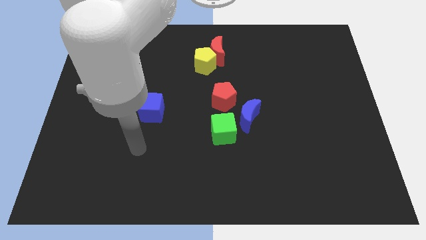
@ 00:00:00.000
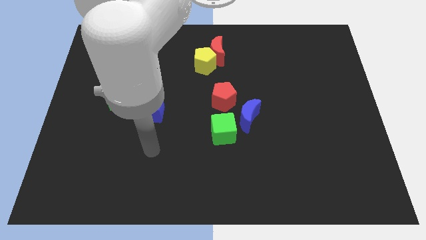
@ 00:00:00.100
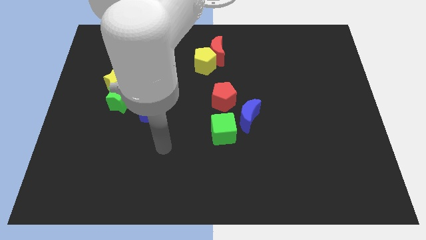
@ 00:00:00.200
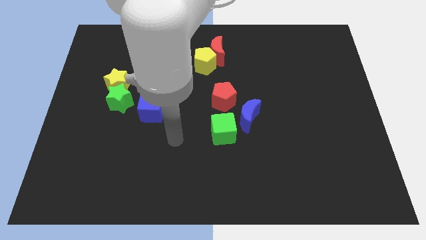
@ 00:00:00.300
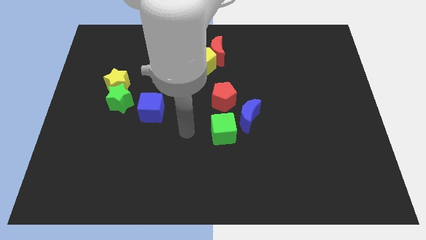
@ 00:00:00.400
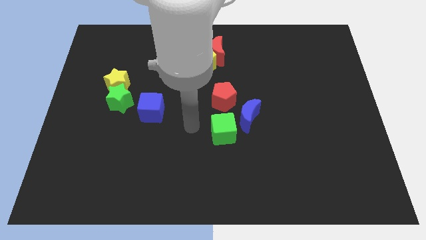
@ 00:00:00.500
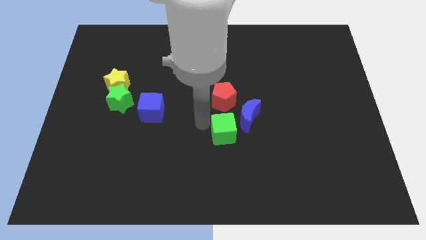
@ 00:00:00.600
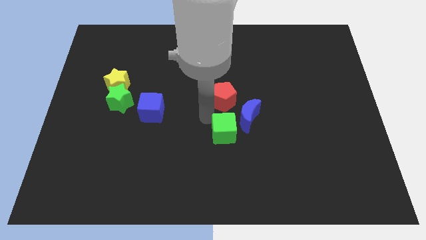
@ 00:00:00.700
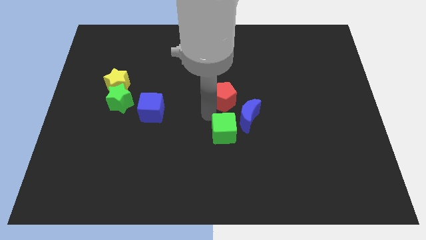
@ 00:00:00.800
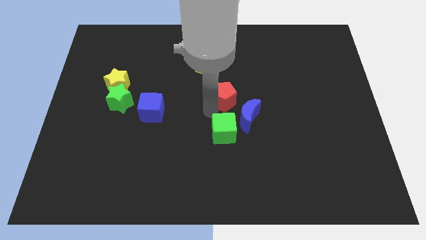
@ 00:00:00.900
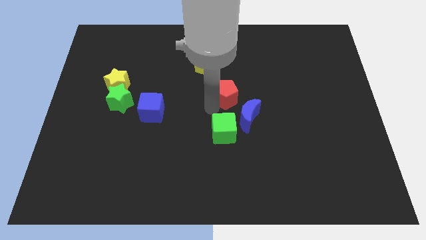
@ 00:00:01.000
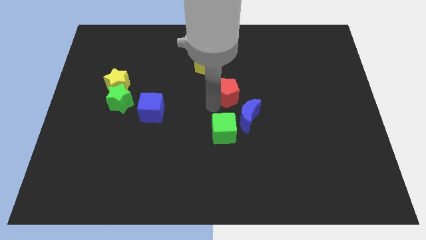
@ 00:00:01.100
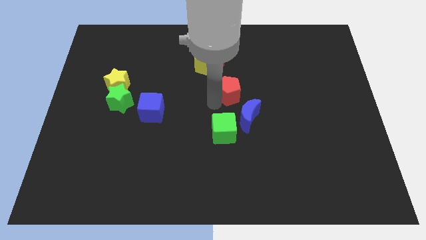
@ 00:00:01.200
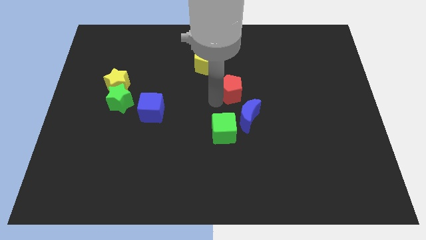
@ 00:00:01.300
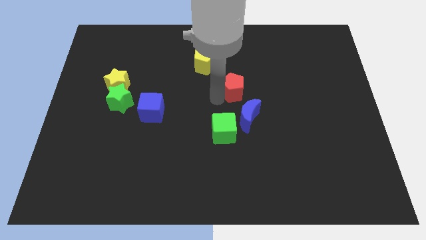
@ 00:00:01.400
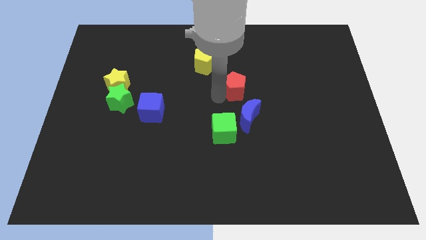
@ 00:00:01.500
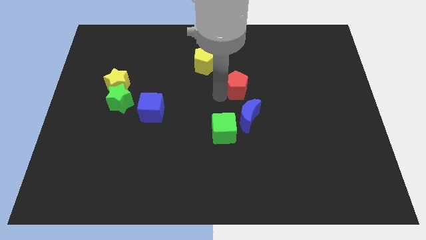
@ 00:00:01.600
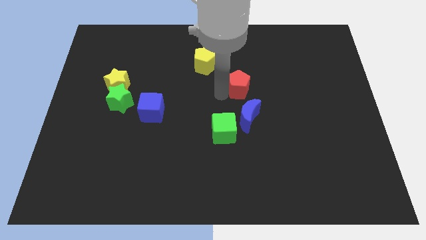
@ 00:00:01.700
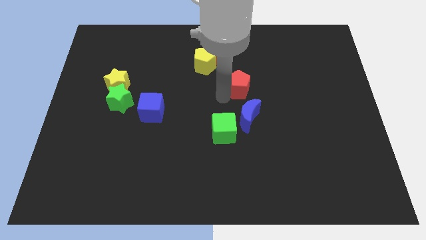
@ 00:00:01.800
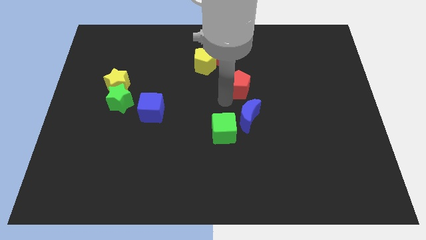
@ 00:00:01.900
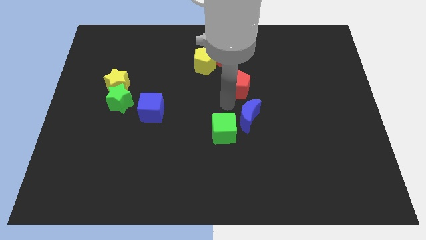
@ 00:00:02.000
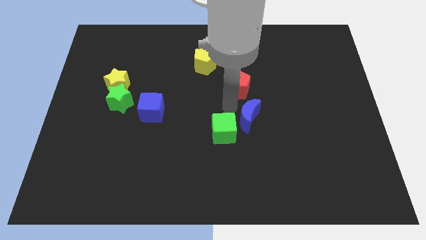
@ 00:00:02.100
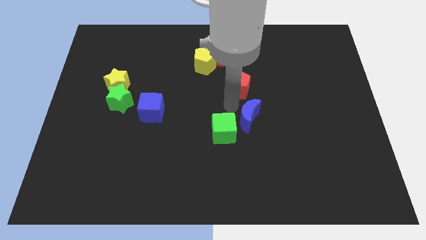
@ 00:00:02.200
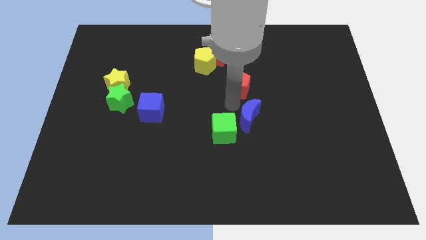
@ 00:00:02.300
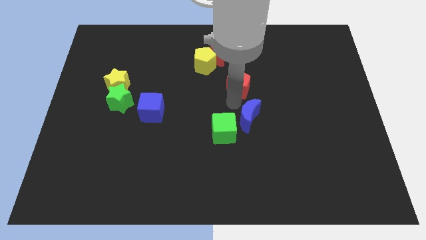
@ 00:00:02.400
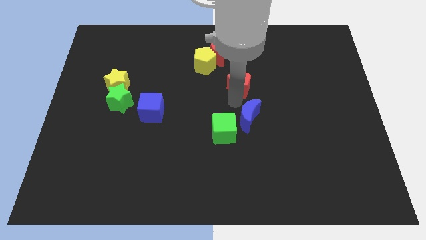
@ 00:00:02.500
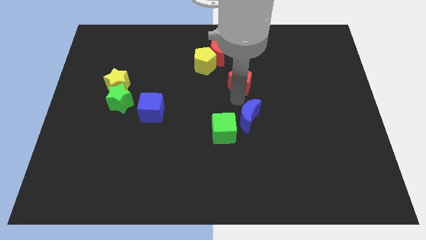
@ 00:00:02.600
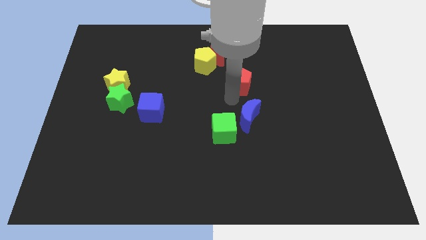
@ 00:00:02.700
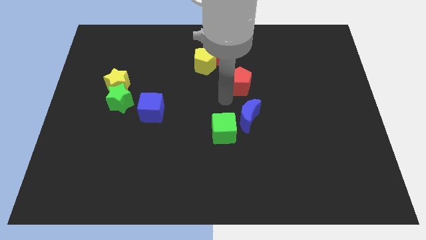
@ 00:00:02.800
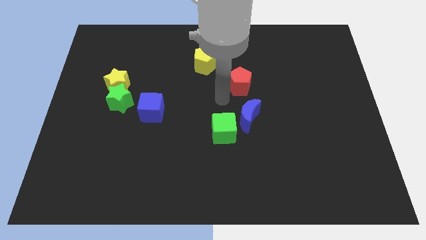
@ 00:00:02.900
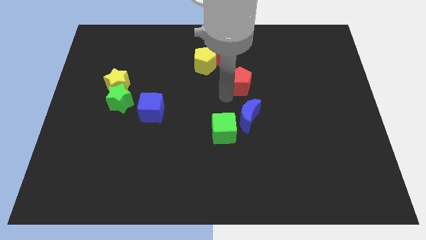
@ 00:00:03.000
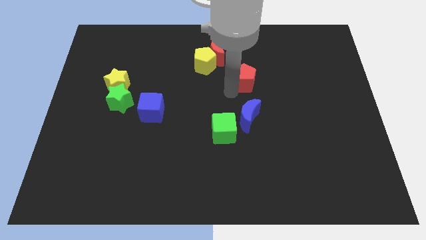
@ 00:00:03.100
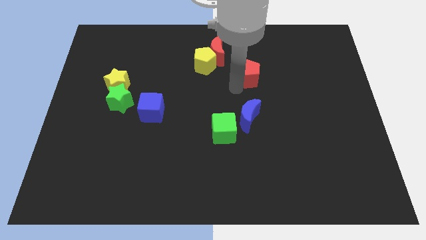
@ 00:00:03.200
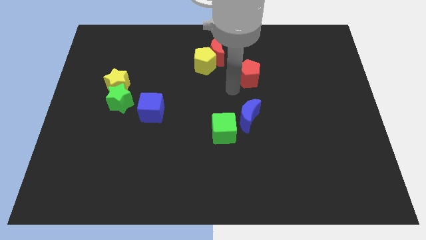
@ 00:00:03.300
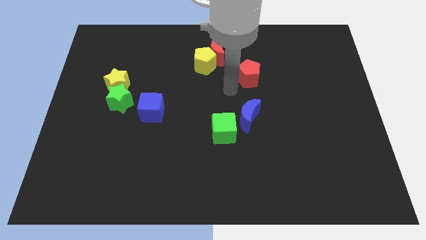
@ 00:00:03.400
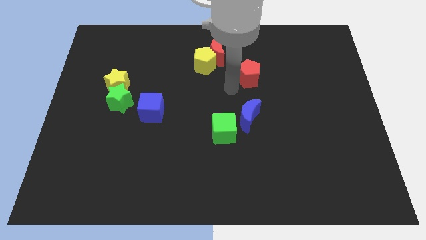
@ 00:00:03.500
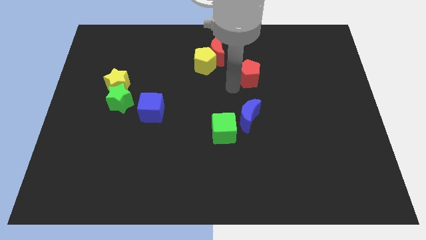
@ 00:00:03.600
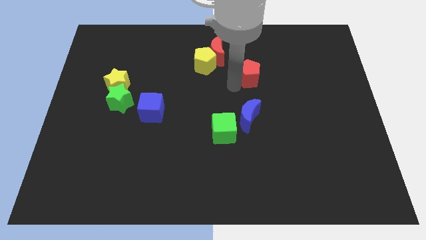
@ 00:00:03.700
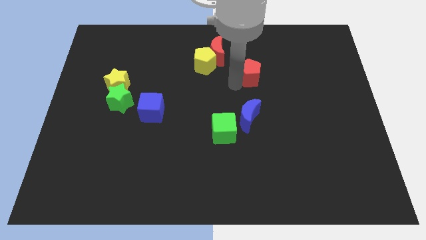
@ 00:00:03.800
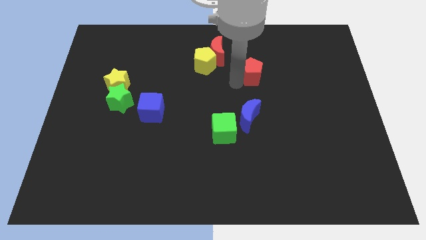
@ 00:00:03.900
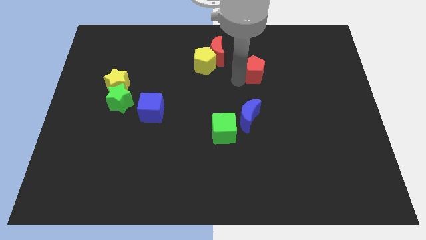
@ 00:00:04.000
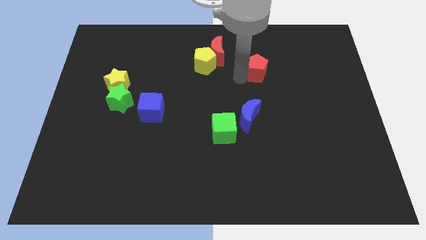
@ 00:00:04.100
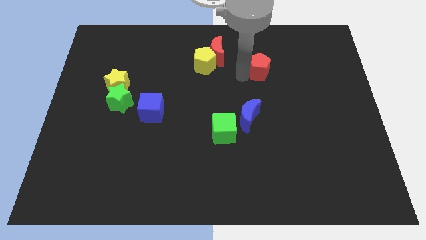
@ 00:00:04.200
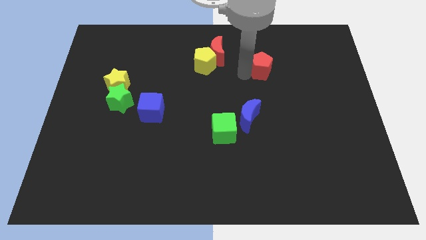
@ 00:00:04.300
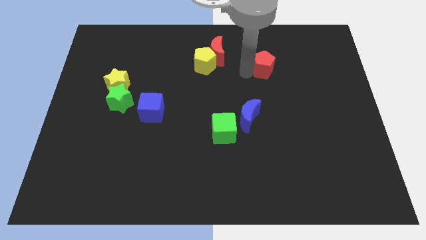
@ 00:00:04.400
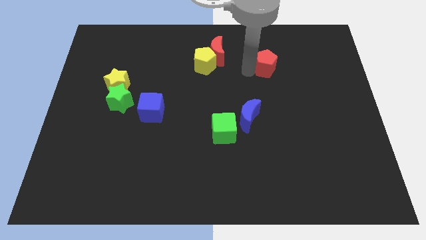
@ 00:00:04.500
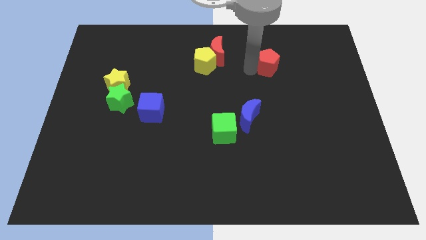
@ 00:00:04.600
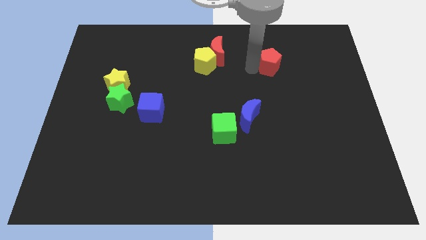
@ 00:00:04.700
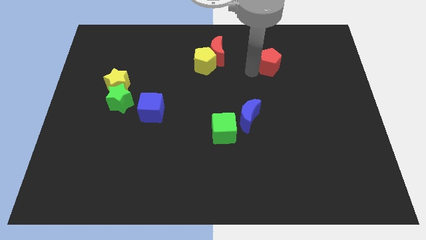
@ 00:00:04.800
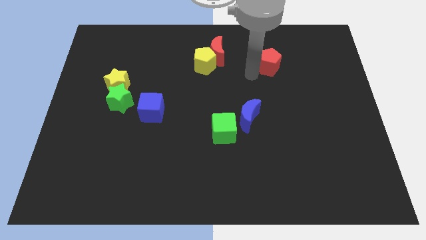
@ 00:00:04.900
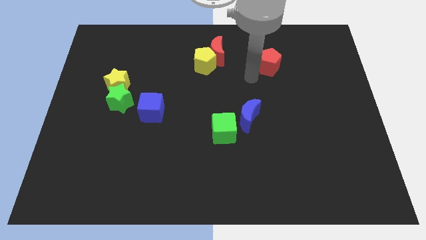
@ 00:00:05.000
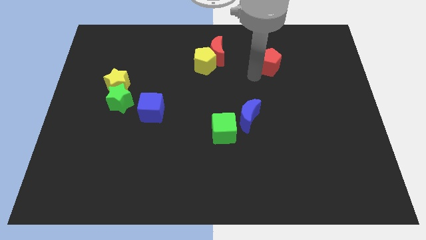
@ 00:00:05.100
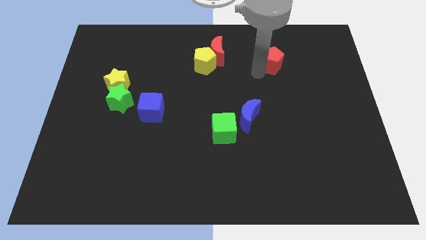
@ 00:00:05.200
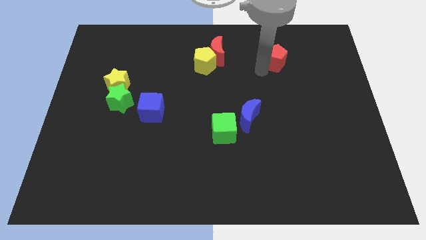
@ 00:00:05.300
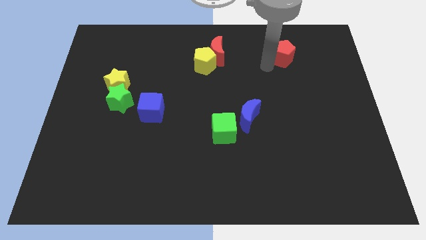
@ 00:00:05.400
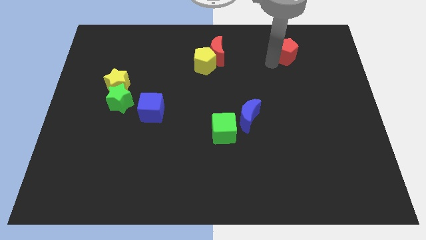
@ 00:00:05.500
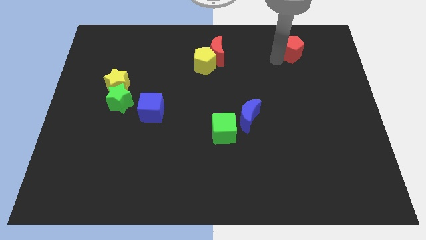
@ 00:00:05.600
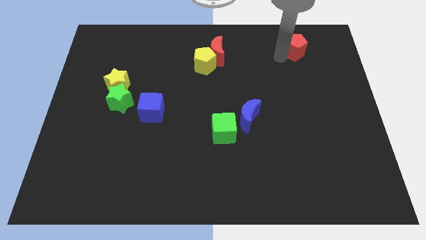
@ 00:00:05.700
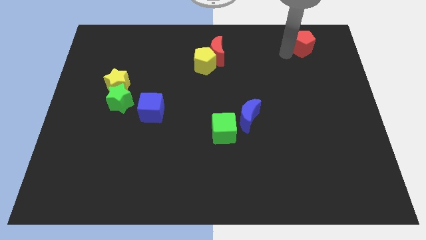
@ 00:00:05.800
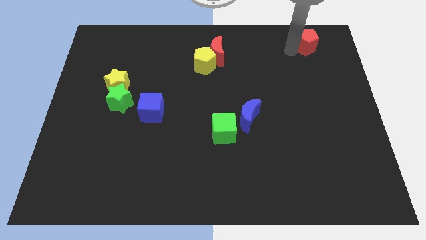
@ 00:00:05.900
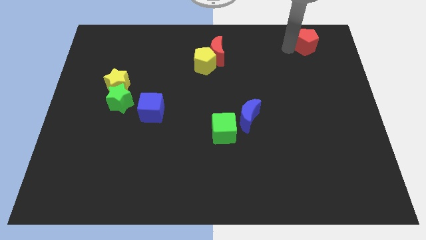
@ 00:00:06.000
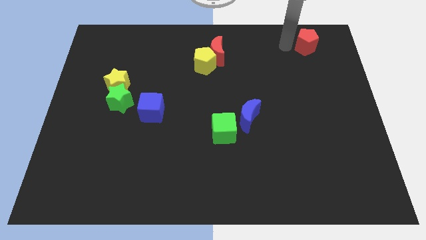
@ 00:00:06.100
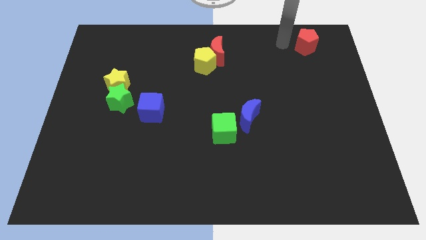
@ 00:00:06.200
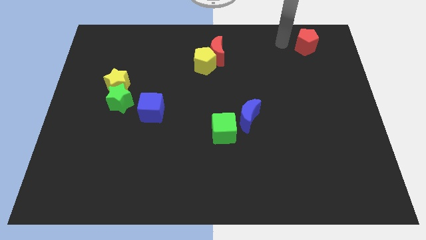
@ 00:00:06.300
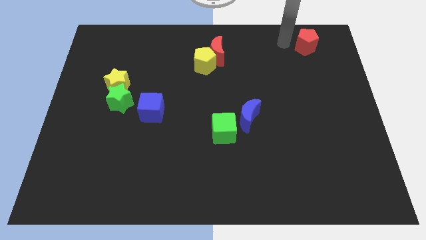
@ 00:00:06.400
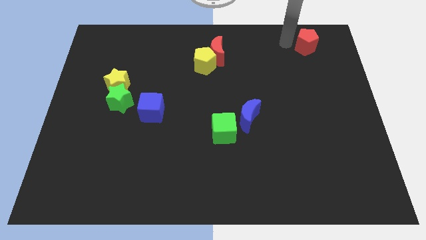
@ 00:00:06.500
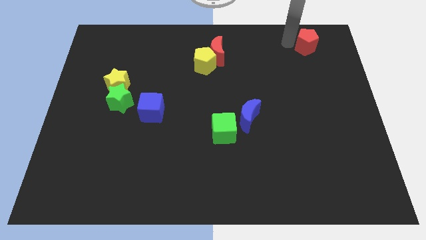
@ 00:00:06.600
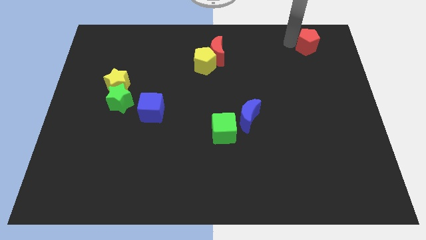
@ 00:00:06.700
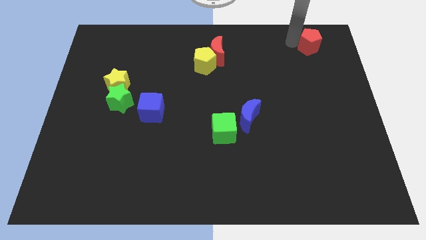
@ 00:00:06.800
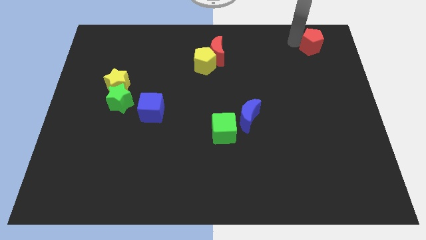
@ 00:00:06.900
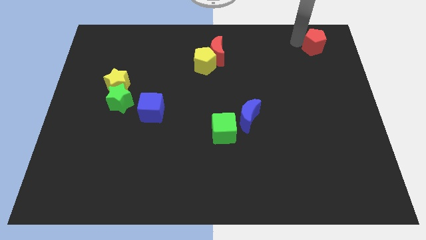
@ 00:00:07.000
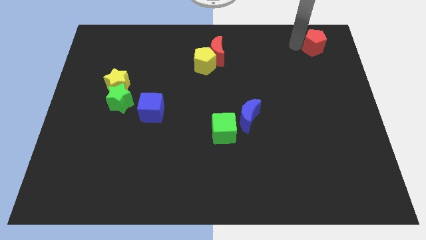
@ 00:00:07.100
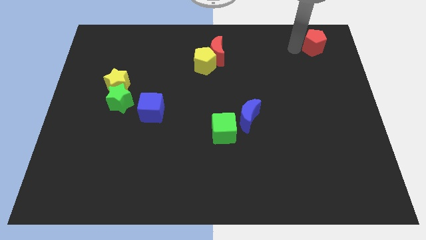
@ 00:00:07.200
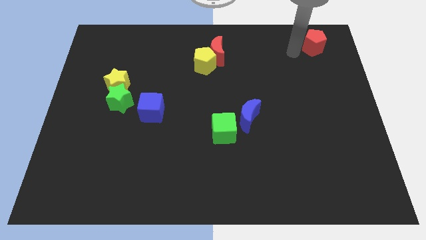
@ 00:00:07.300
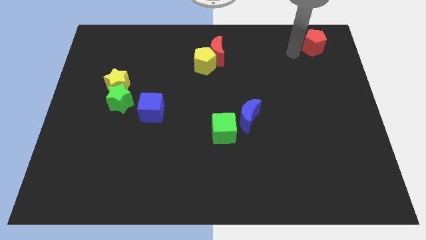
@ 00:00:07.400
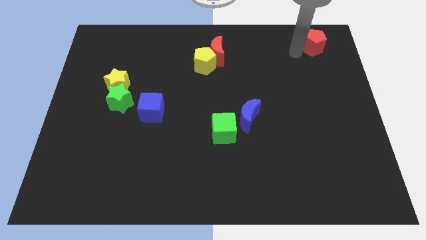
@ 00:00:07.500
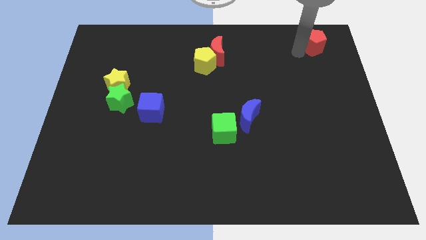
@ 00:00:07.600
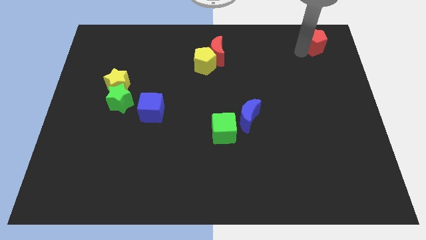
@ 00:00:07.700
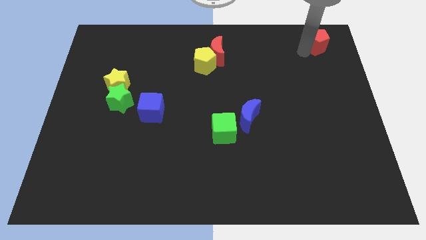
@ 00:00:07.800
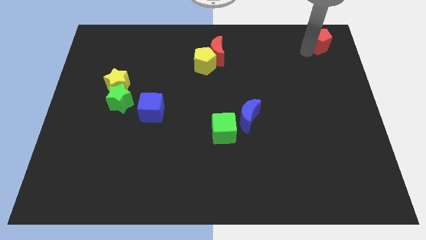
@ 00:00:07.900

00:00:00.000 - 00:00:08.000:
slide the red pentagon to the top right corner
